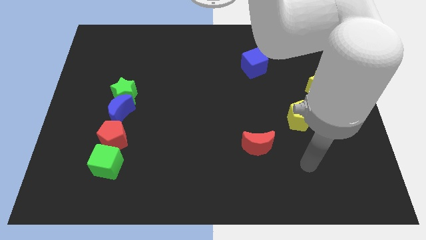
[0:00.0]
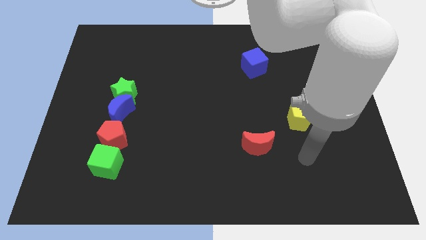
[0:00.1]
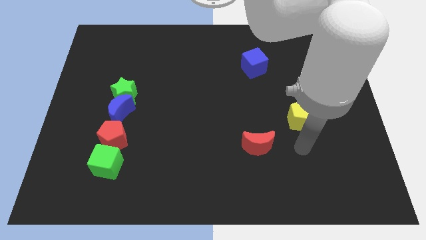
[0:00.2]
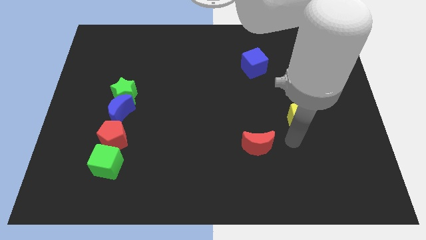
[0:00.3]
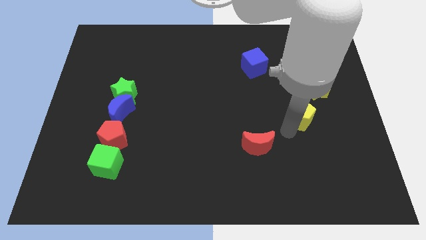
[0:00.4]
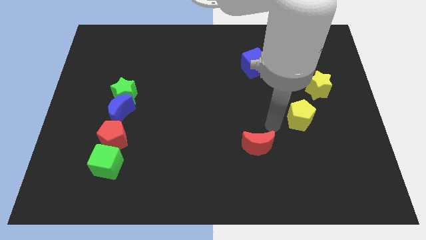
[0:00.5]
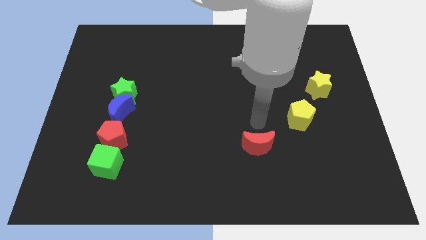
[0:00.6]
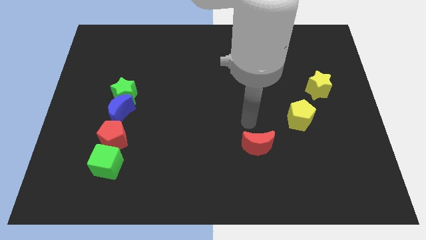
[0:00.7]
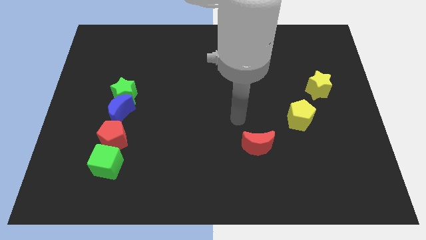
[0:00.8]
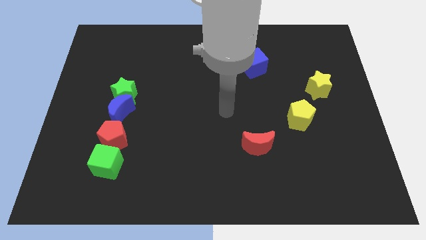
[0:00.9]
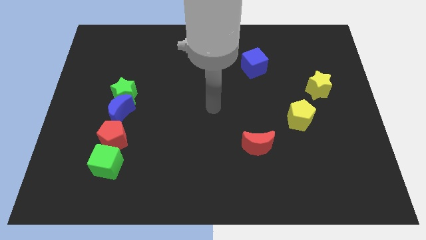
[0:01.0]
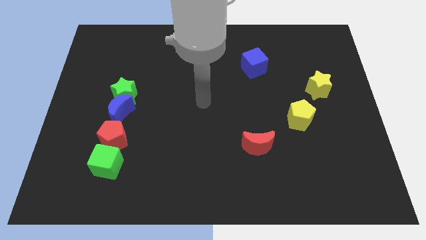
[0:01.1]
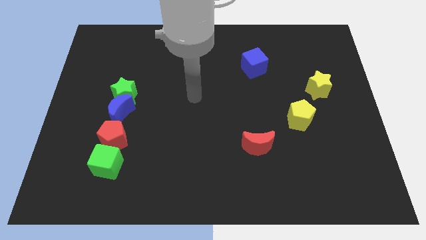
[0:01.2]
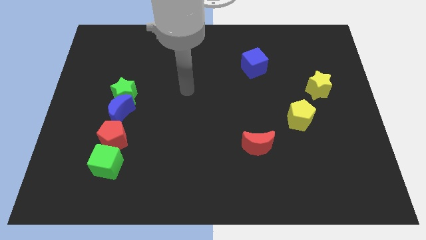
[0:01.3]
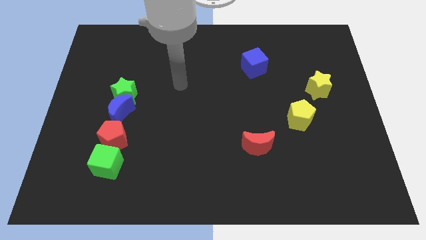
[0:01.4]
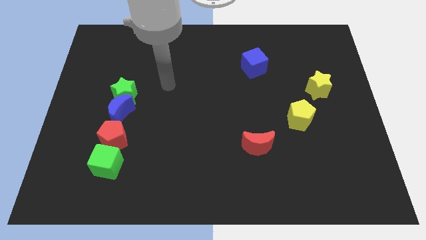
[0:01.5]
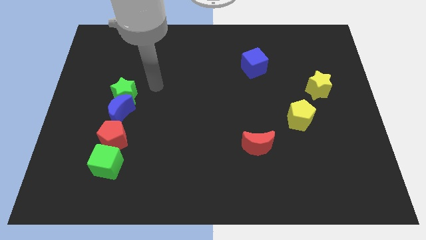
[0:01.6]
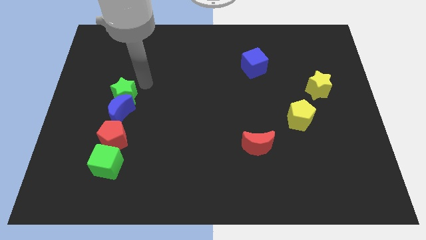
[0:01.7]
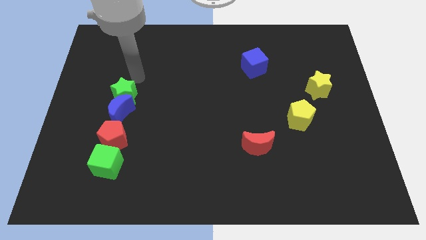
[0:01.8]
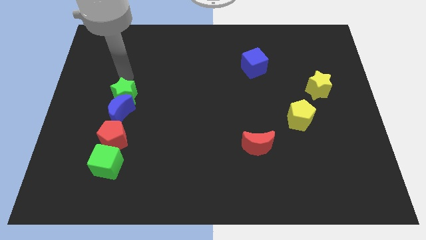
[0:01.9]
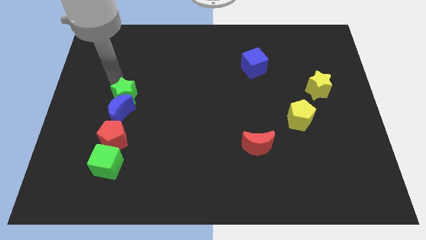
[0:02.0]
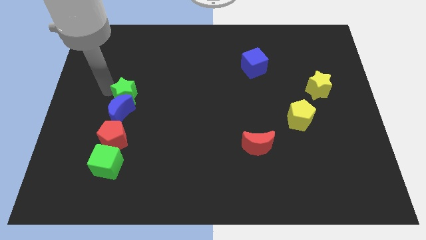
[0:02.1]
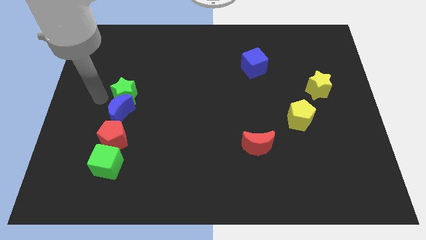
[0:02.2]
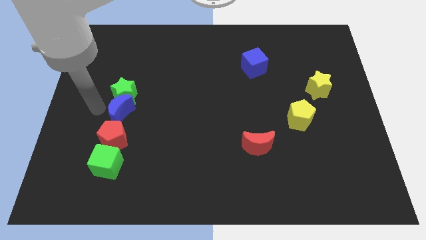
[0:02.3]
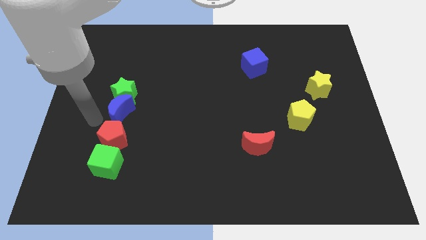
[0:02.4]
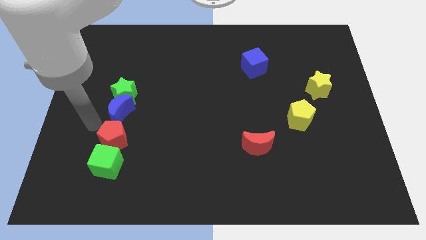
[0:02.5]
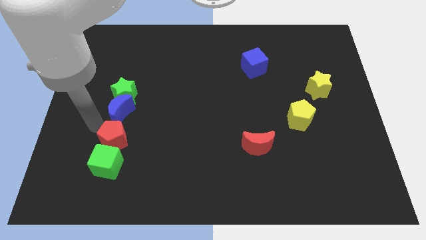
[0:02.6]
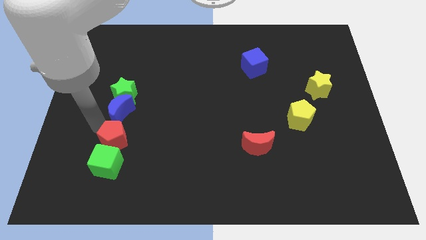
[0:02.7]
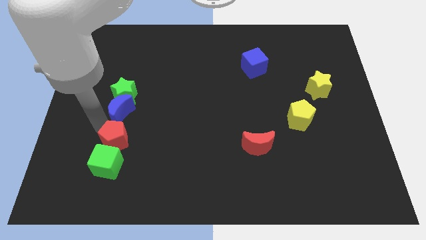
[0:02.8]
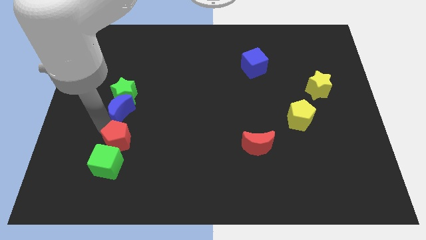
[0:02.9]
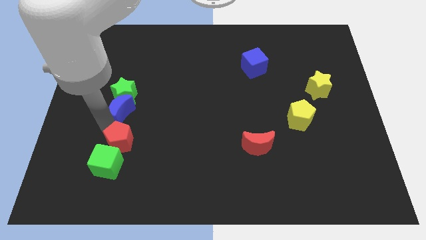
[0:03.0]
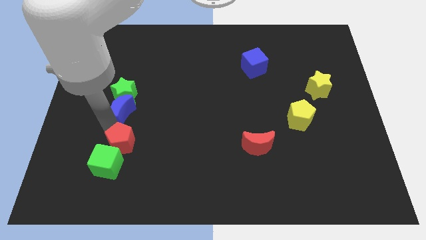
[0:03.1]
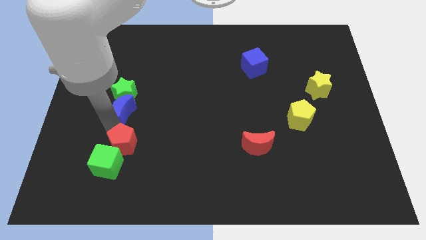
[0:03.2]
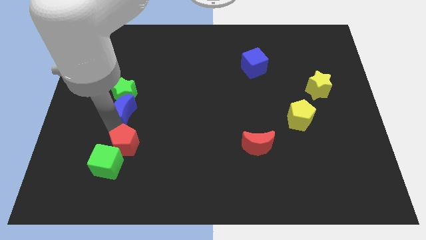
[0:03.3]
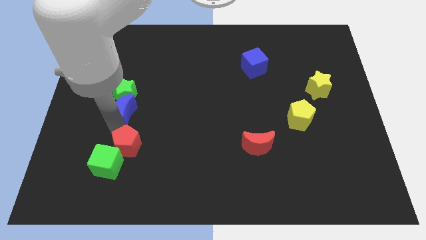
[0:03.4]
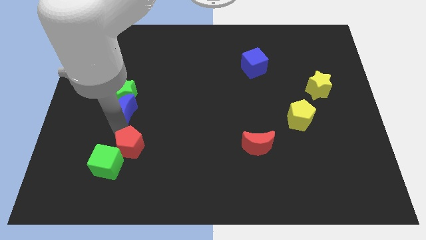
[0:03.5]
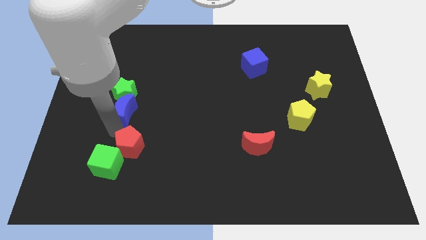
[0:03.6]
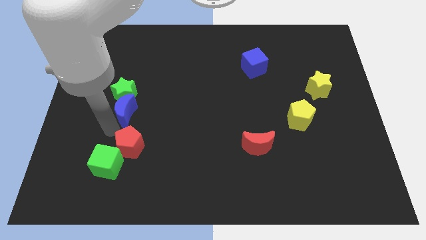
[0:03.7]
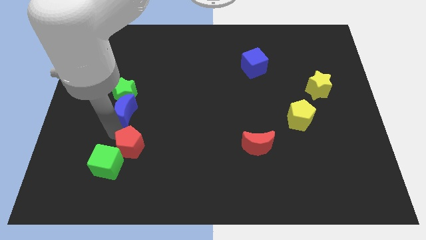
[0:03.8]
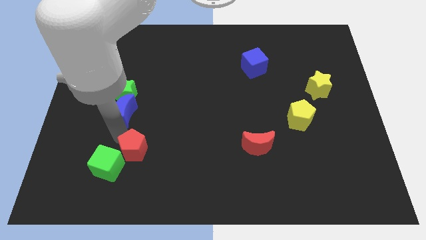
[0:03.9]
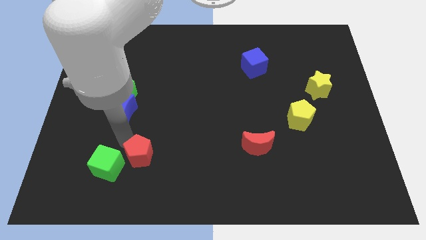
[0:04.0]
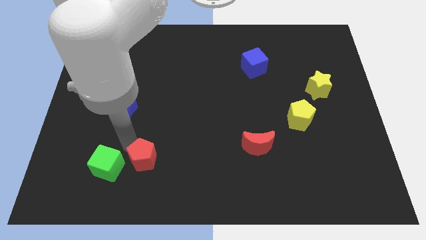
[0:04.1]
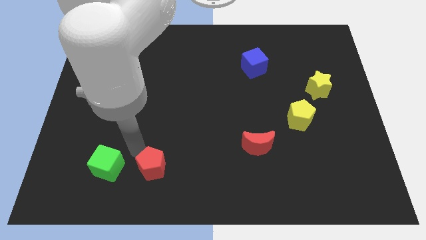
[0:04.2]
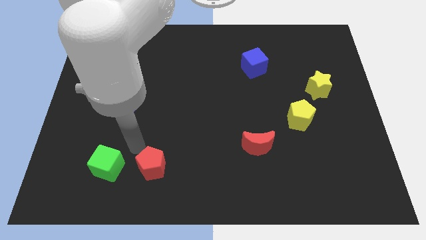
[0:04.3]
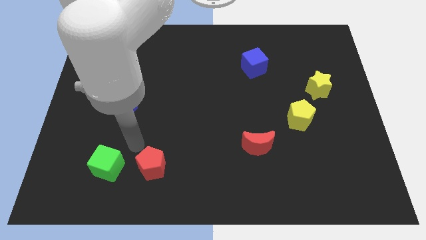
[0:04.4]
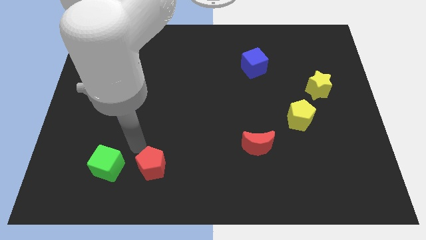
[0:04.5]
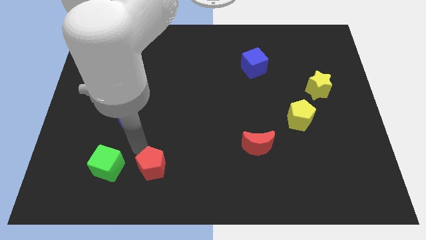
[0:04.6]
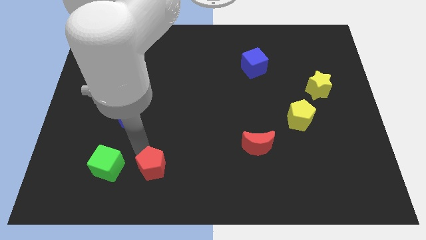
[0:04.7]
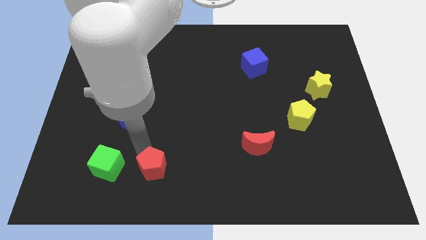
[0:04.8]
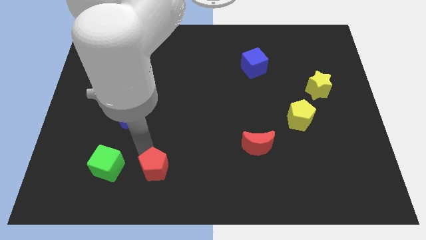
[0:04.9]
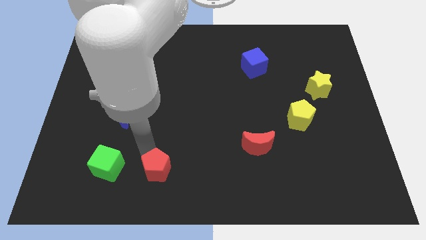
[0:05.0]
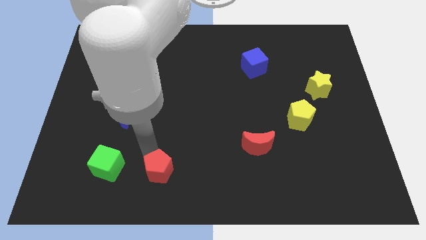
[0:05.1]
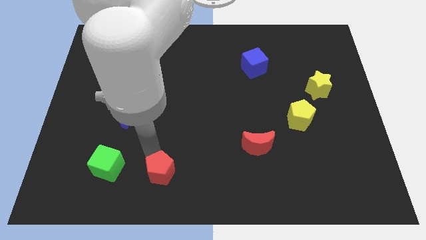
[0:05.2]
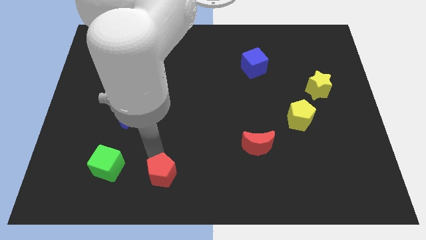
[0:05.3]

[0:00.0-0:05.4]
slide the red pentagon to the bottom

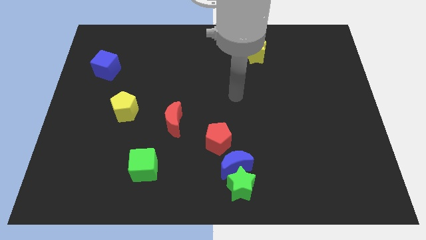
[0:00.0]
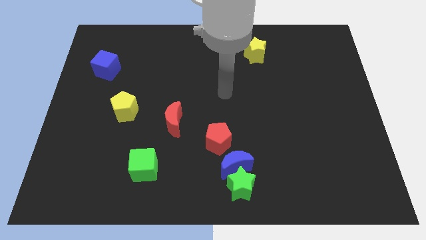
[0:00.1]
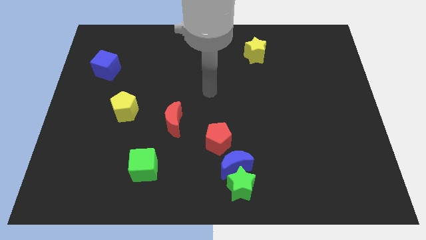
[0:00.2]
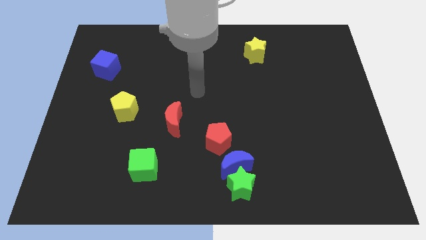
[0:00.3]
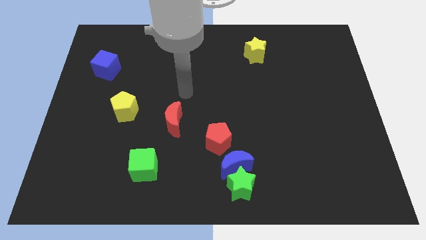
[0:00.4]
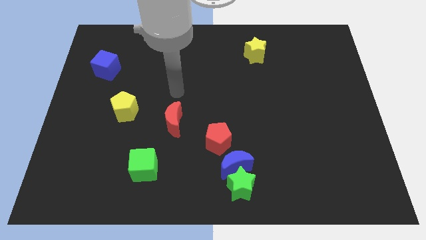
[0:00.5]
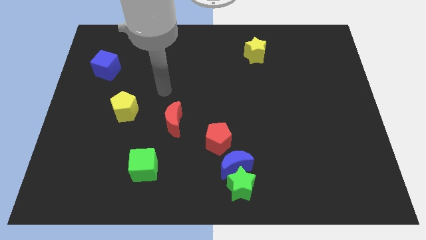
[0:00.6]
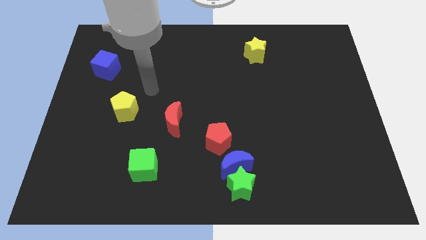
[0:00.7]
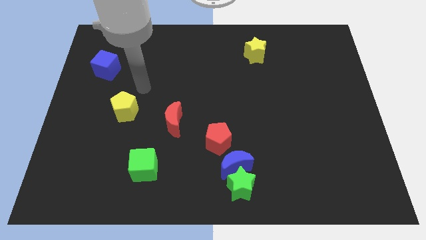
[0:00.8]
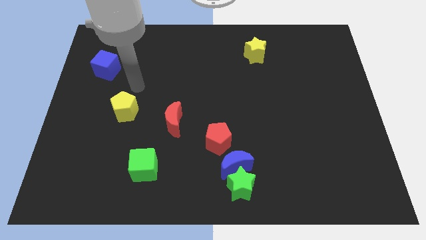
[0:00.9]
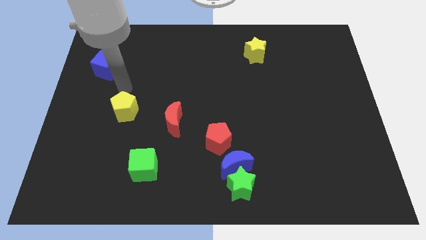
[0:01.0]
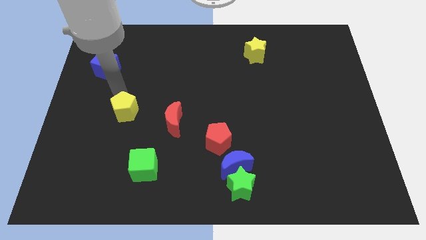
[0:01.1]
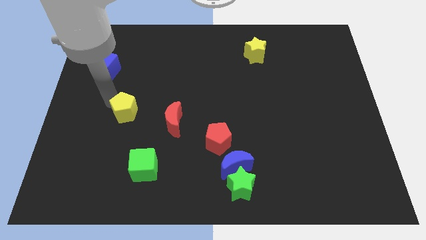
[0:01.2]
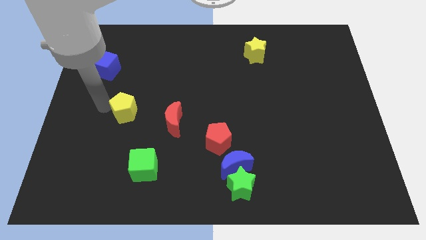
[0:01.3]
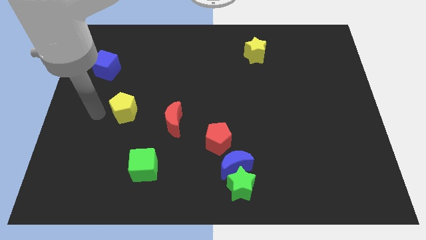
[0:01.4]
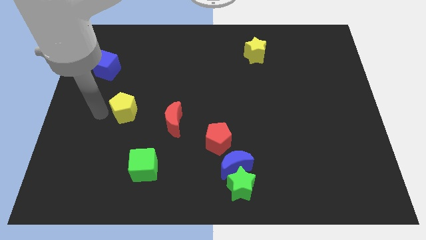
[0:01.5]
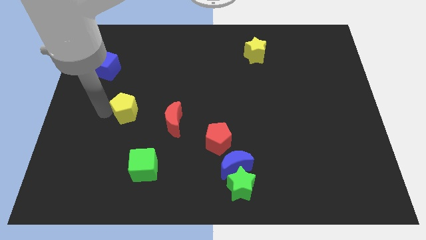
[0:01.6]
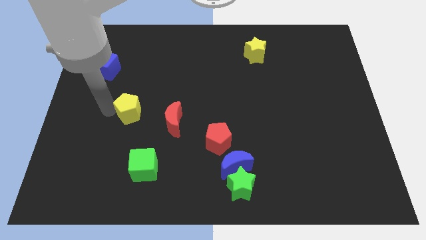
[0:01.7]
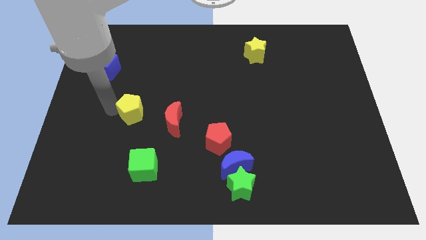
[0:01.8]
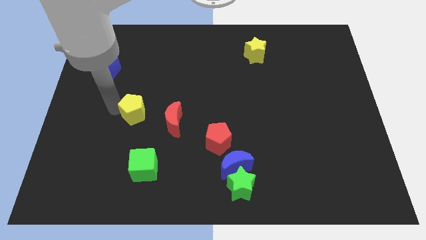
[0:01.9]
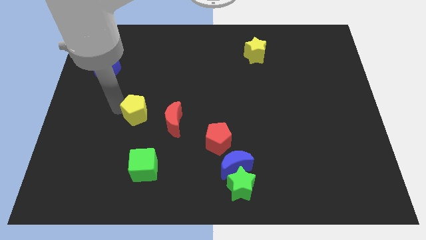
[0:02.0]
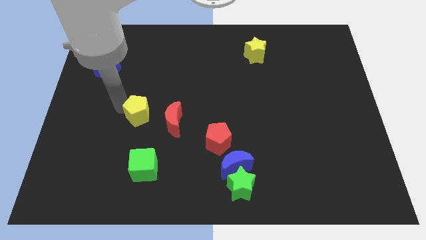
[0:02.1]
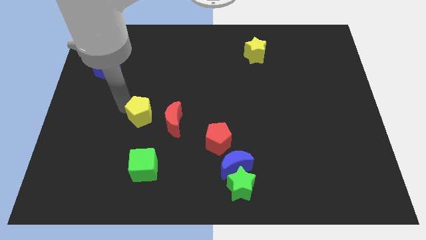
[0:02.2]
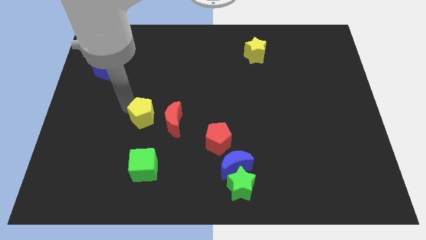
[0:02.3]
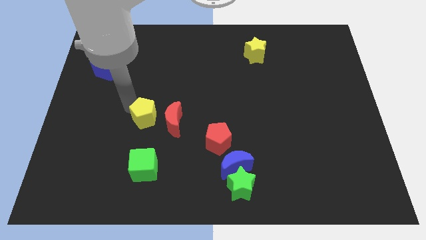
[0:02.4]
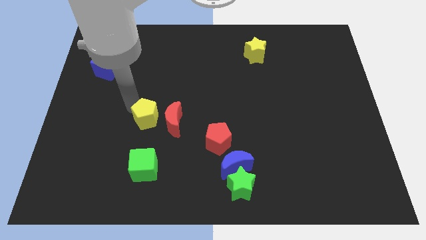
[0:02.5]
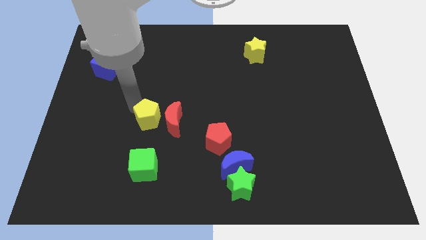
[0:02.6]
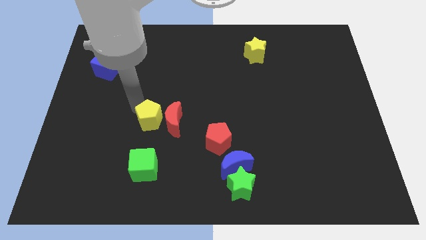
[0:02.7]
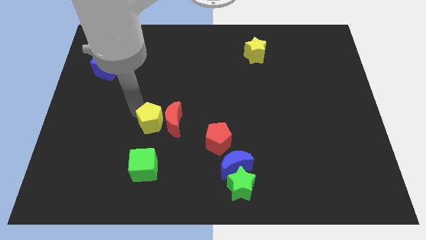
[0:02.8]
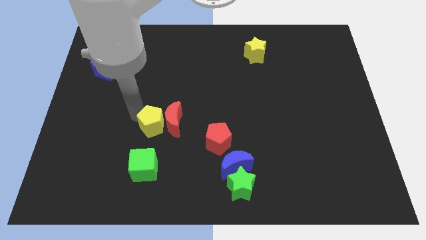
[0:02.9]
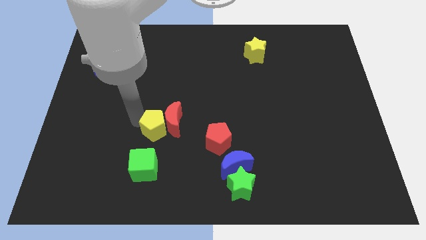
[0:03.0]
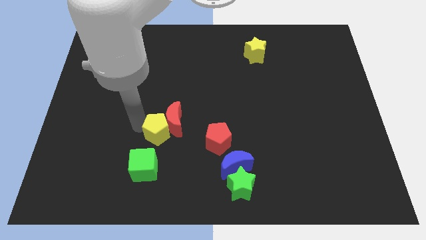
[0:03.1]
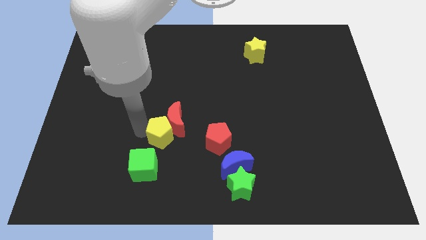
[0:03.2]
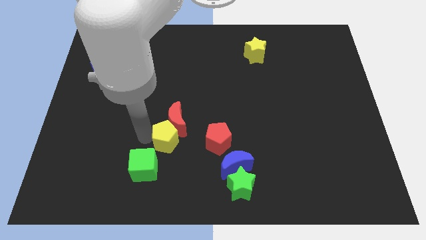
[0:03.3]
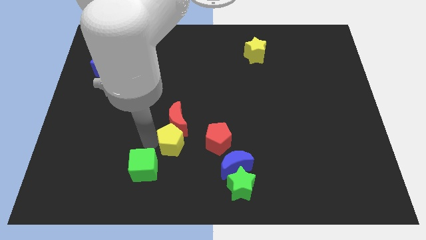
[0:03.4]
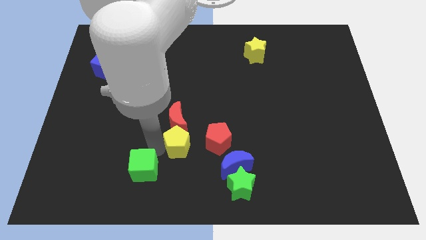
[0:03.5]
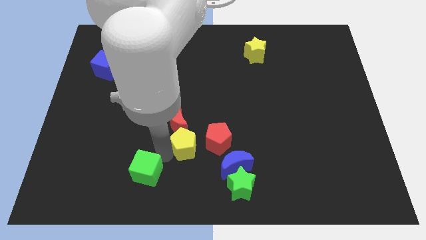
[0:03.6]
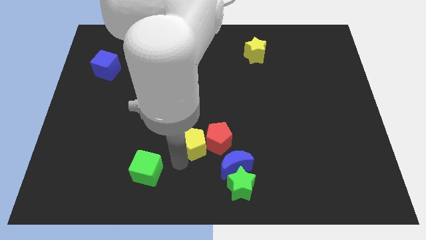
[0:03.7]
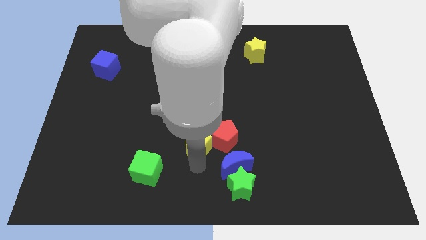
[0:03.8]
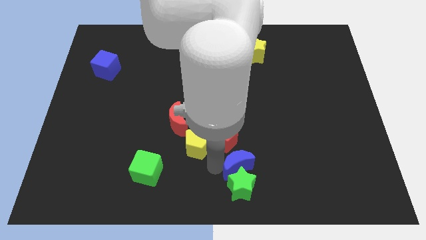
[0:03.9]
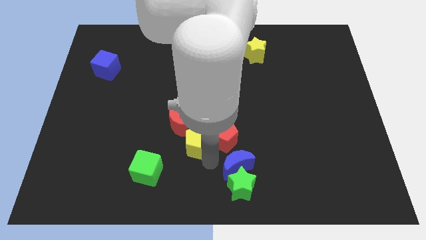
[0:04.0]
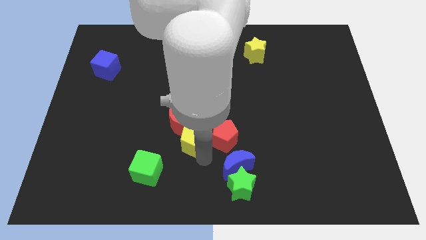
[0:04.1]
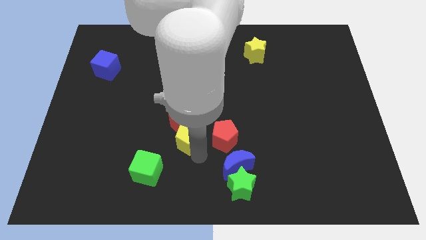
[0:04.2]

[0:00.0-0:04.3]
push the yellow pentagon to the center
